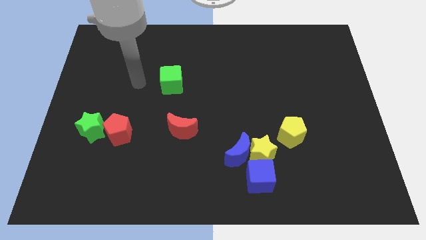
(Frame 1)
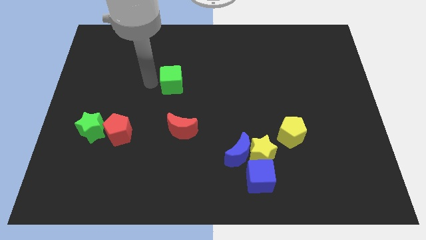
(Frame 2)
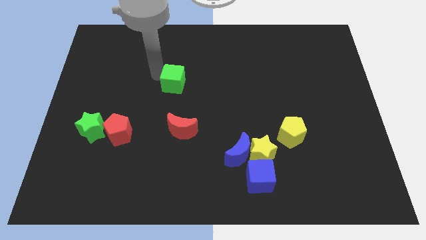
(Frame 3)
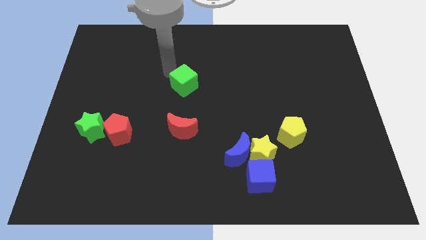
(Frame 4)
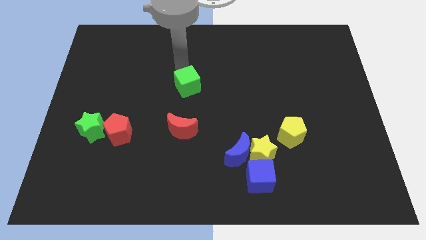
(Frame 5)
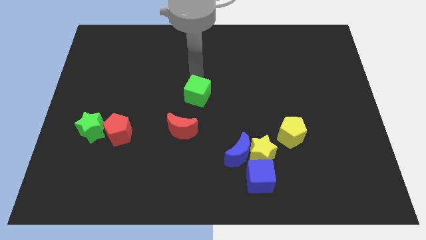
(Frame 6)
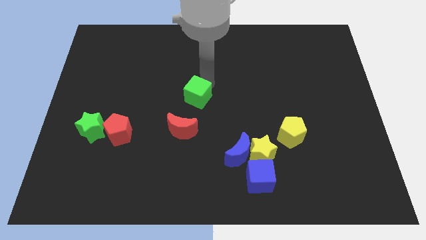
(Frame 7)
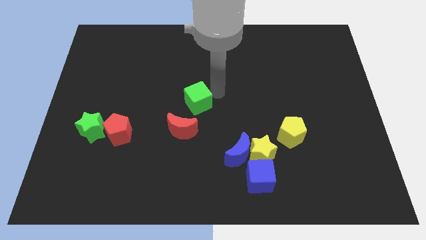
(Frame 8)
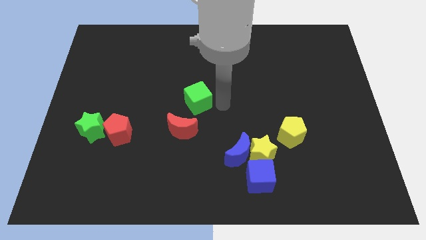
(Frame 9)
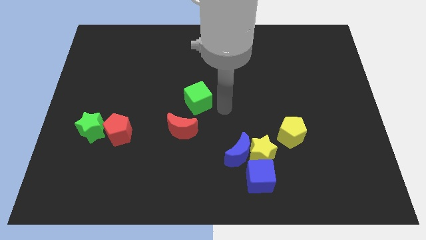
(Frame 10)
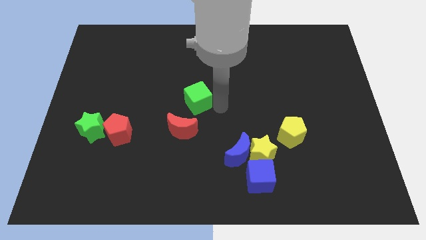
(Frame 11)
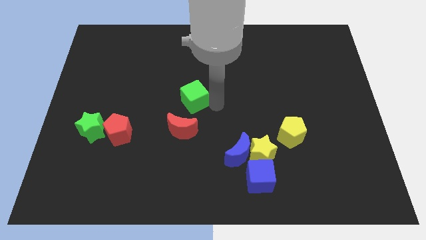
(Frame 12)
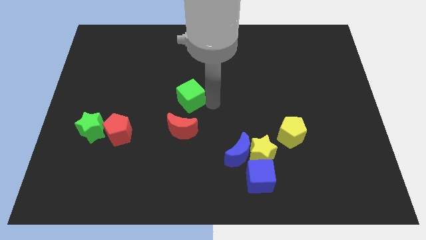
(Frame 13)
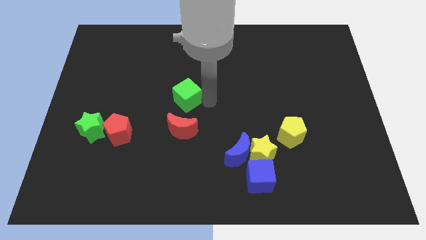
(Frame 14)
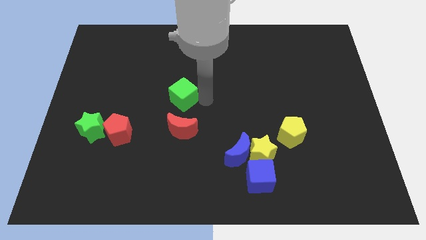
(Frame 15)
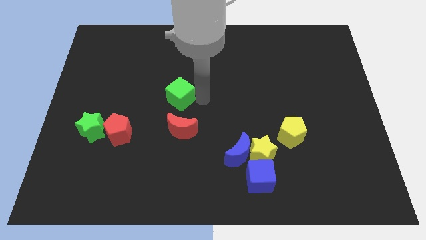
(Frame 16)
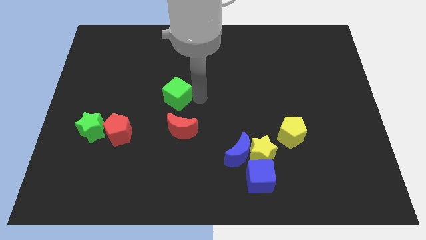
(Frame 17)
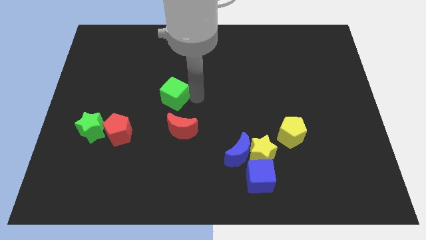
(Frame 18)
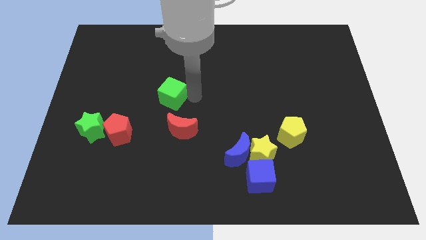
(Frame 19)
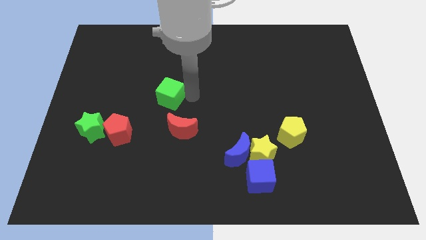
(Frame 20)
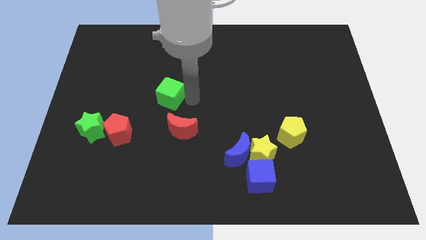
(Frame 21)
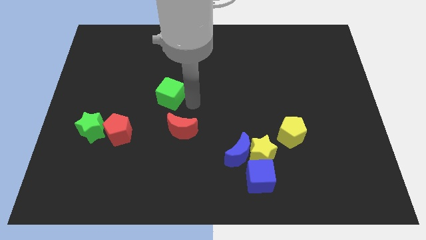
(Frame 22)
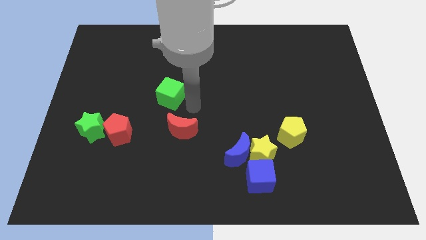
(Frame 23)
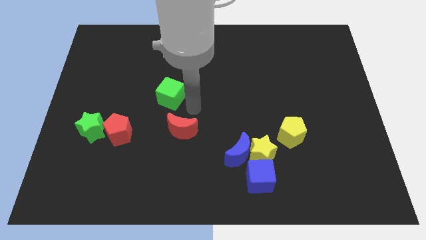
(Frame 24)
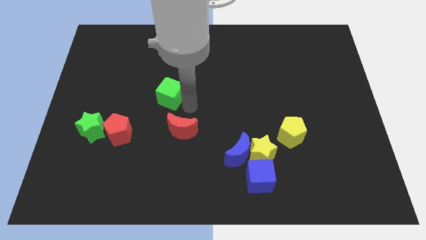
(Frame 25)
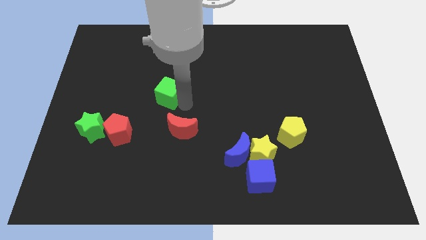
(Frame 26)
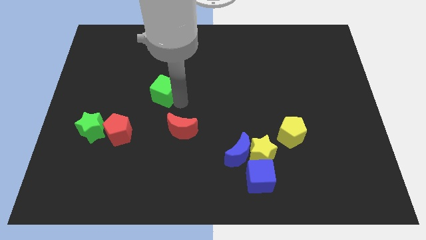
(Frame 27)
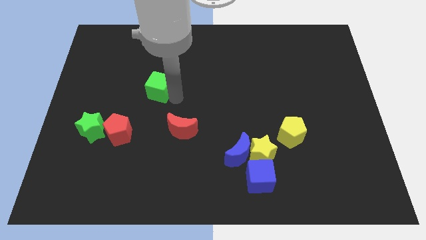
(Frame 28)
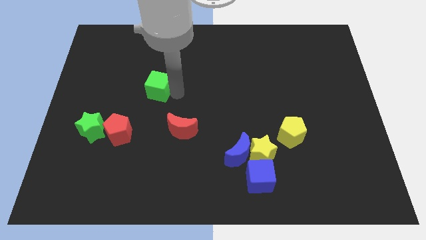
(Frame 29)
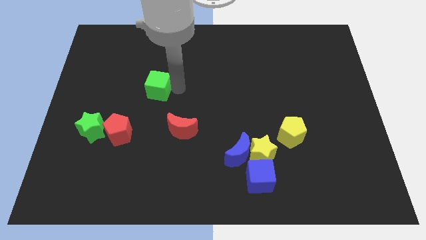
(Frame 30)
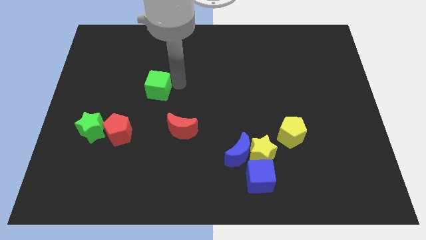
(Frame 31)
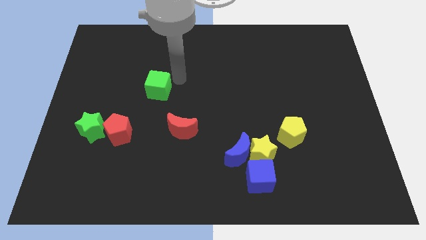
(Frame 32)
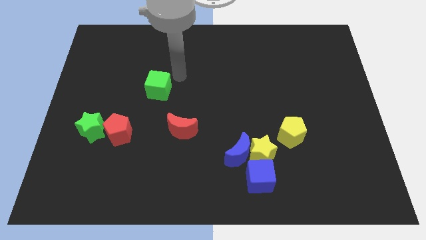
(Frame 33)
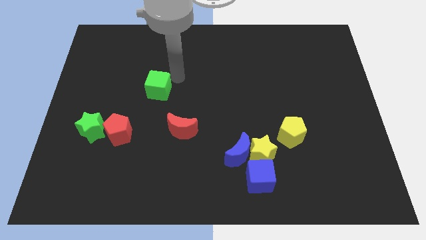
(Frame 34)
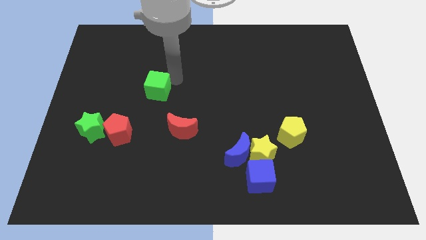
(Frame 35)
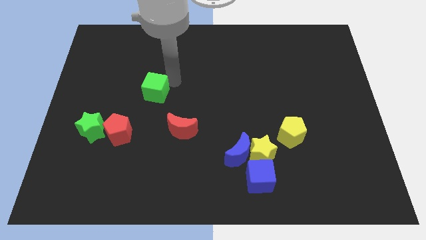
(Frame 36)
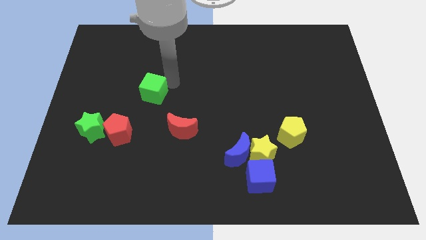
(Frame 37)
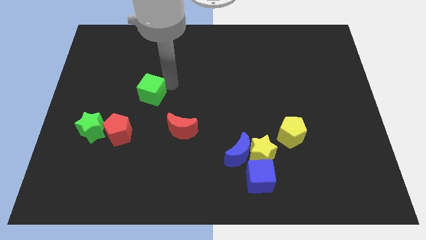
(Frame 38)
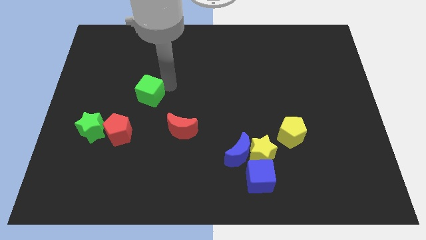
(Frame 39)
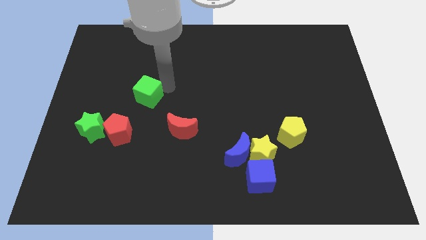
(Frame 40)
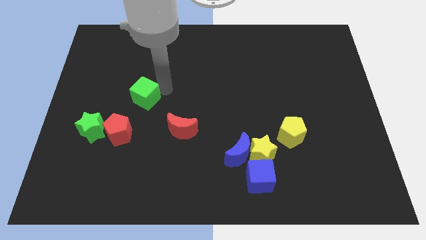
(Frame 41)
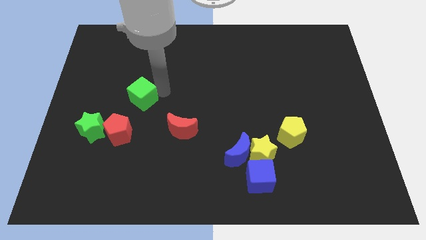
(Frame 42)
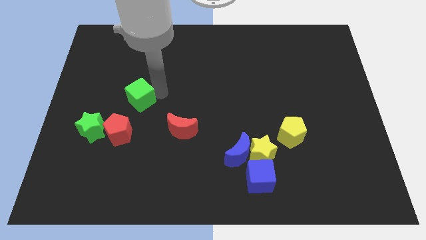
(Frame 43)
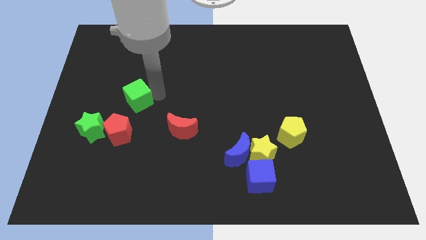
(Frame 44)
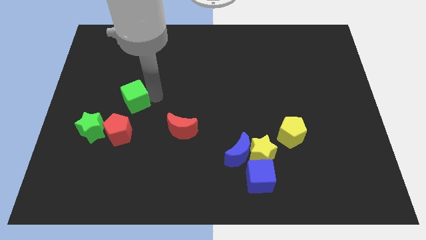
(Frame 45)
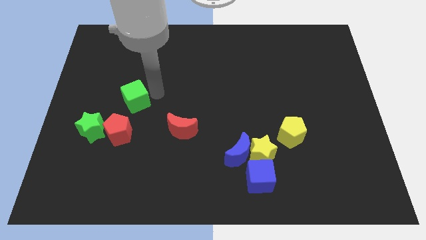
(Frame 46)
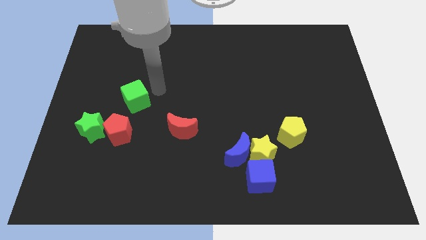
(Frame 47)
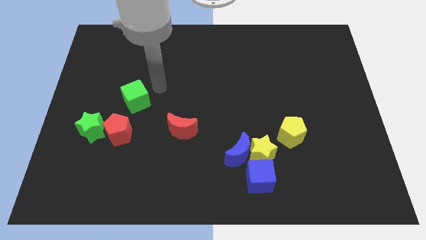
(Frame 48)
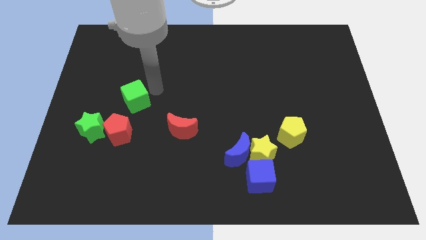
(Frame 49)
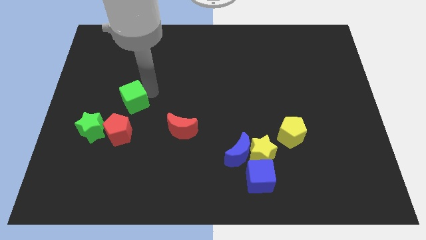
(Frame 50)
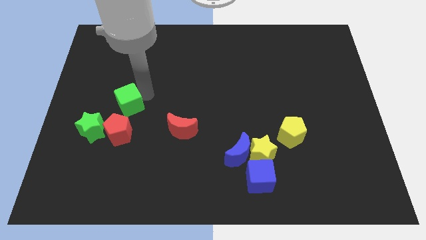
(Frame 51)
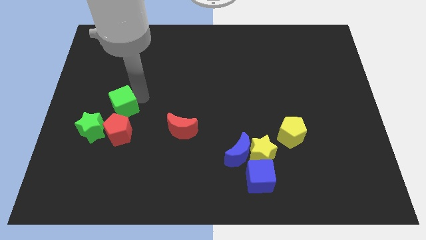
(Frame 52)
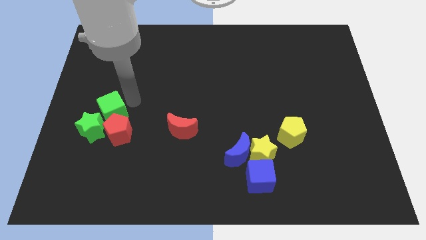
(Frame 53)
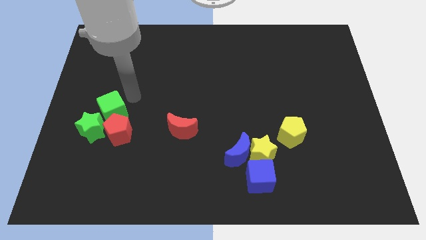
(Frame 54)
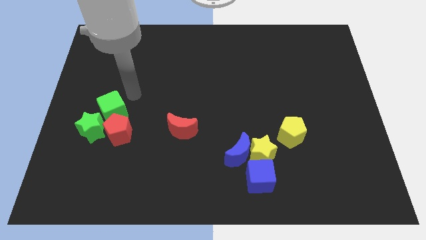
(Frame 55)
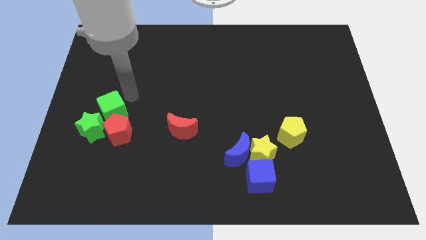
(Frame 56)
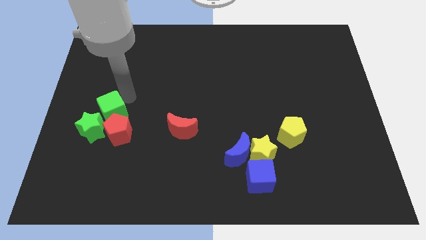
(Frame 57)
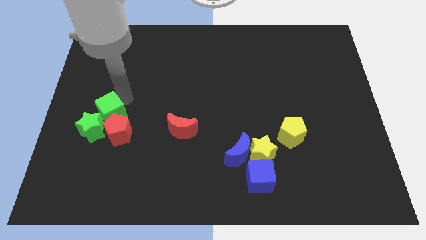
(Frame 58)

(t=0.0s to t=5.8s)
slide the green cube close to the green star

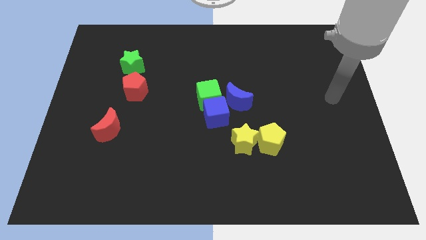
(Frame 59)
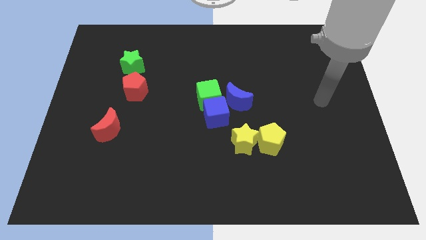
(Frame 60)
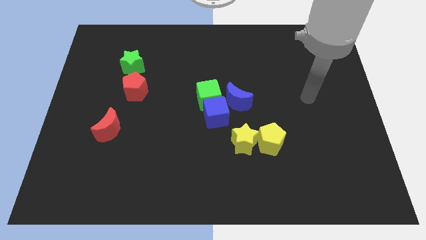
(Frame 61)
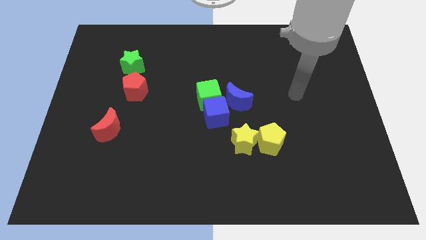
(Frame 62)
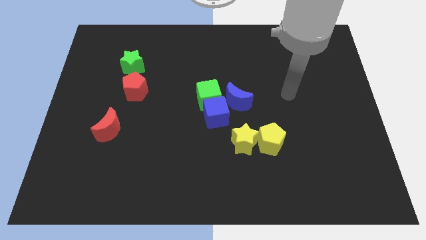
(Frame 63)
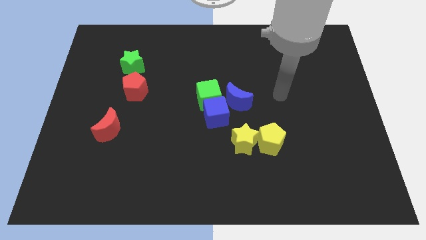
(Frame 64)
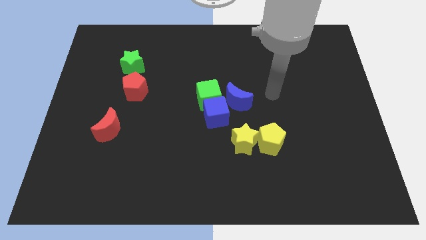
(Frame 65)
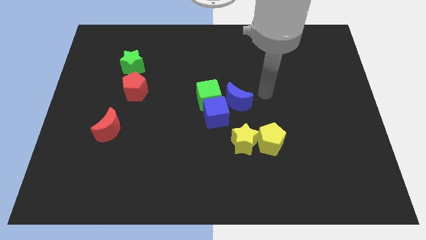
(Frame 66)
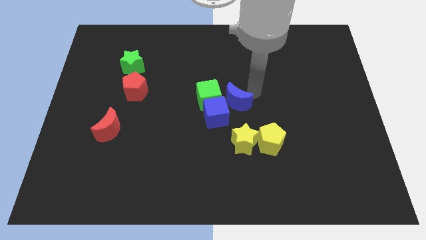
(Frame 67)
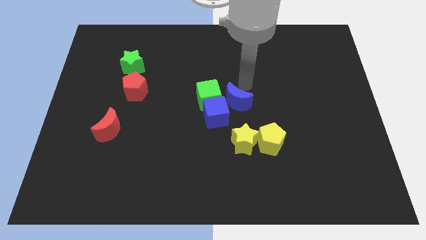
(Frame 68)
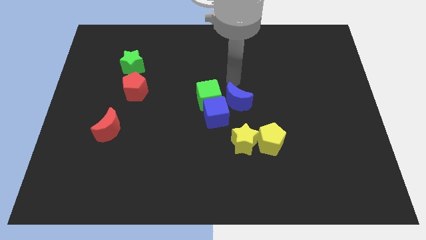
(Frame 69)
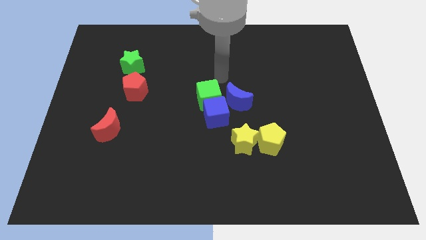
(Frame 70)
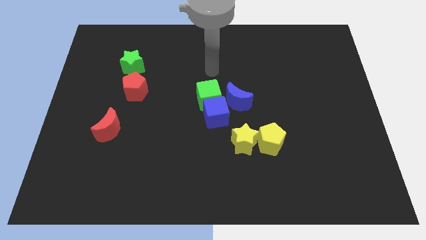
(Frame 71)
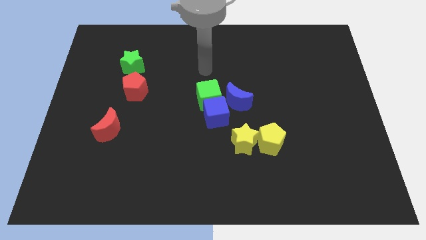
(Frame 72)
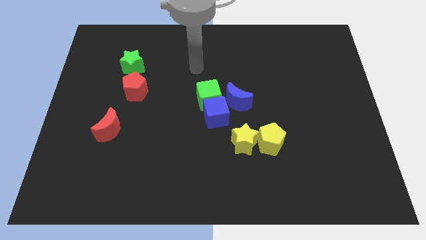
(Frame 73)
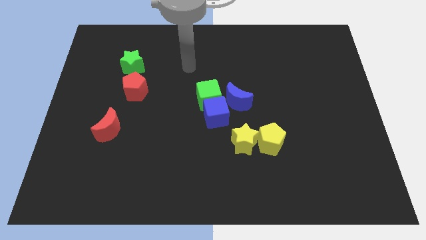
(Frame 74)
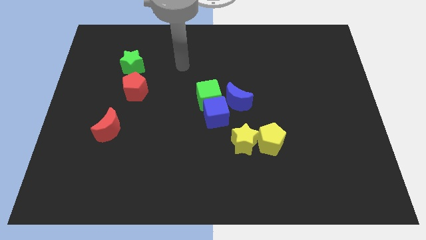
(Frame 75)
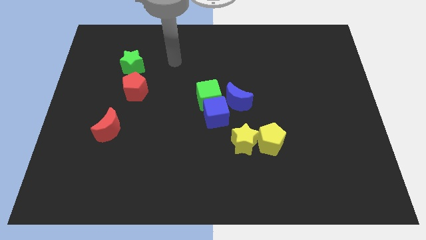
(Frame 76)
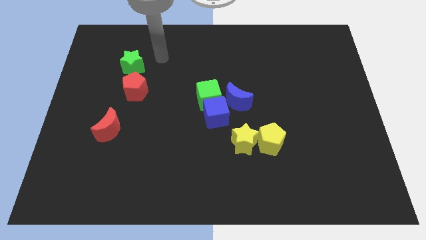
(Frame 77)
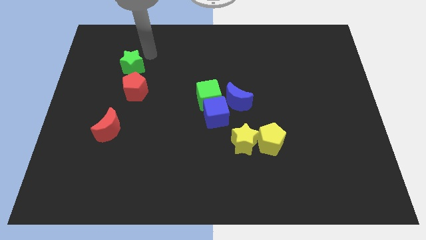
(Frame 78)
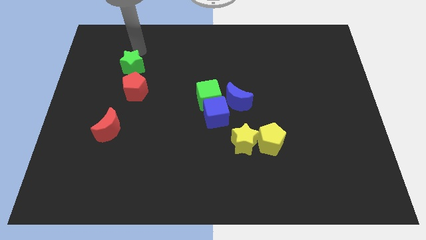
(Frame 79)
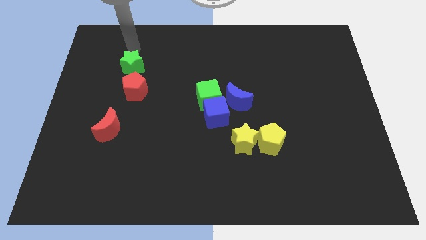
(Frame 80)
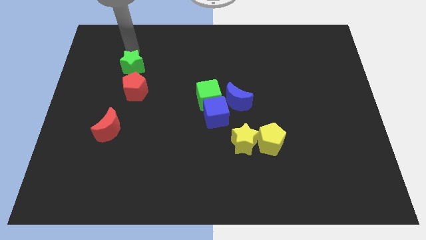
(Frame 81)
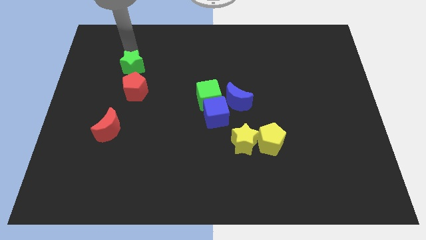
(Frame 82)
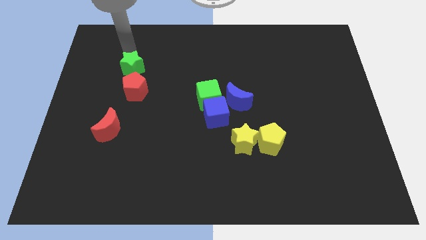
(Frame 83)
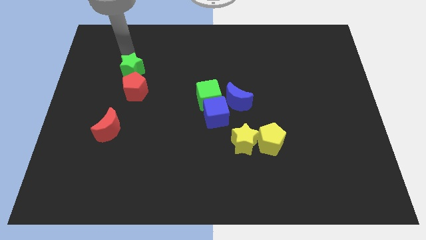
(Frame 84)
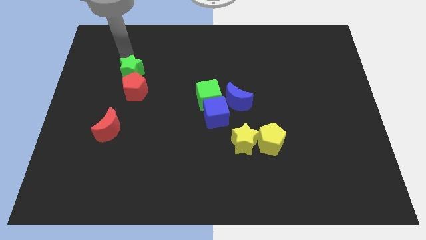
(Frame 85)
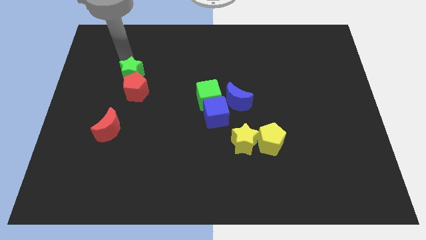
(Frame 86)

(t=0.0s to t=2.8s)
put the green star close to the red pentagon
